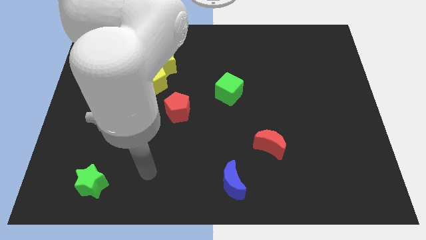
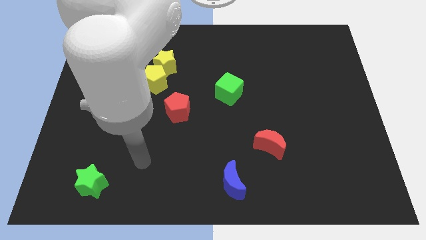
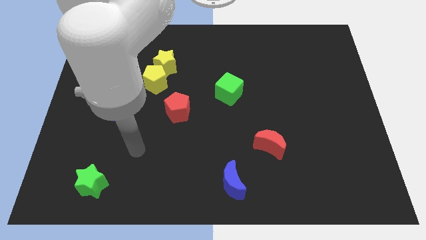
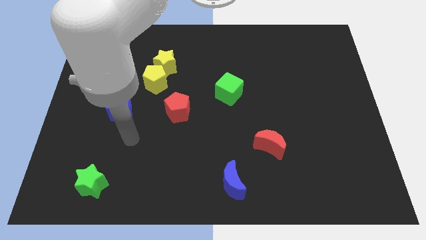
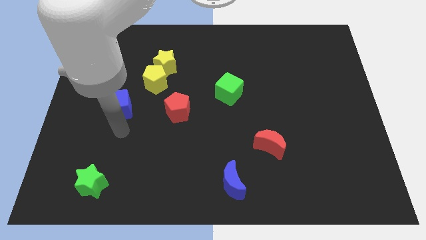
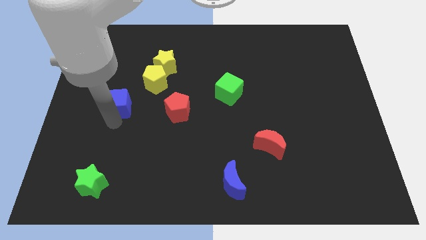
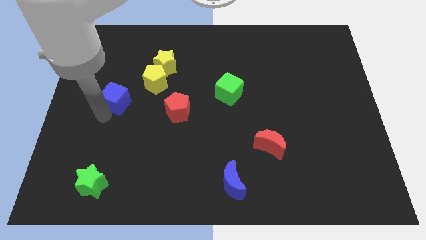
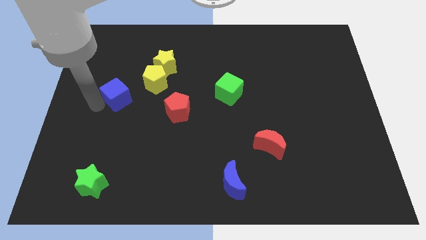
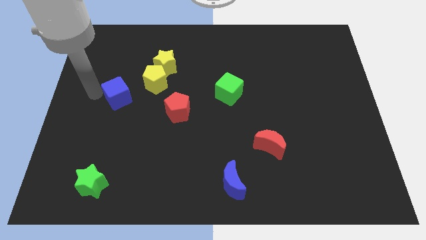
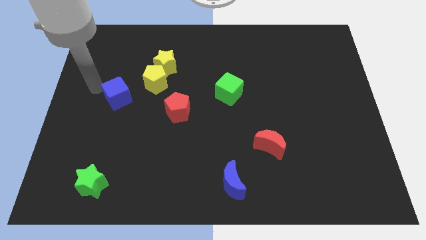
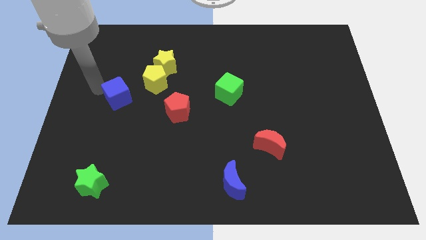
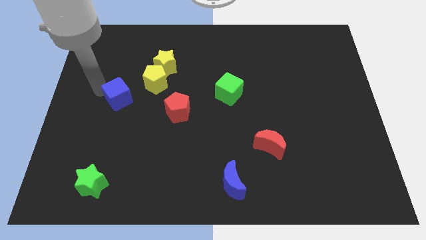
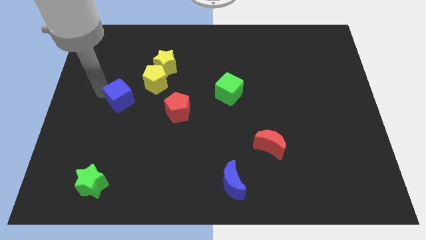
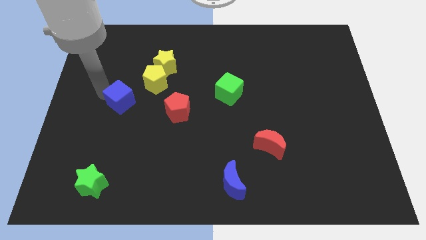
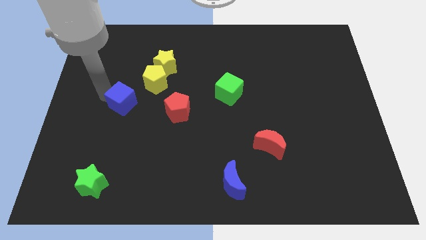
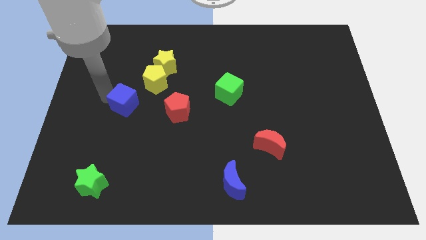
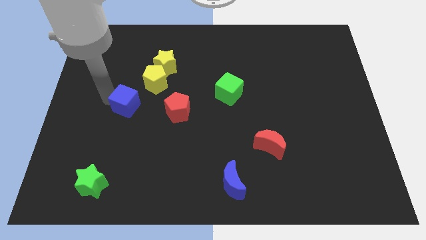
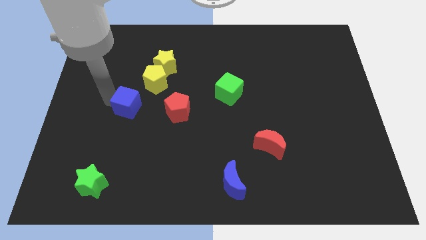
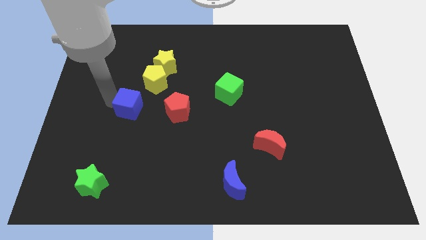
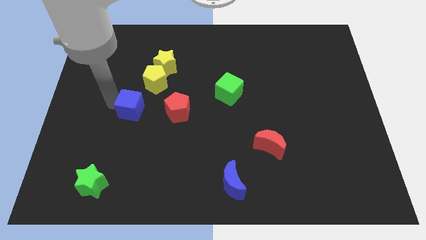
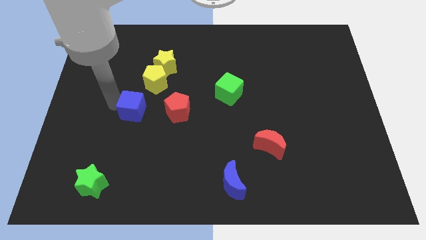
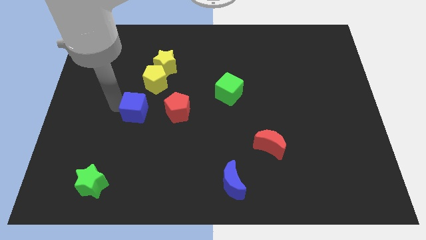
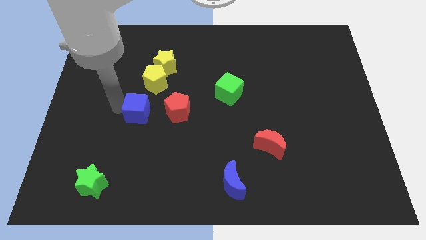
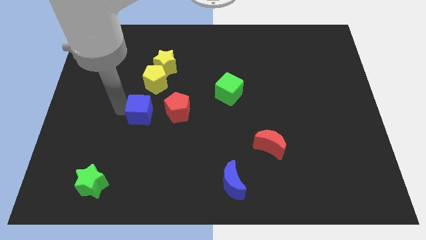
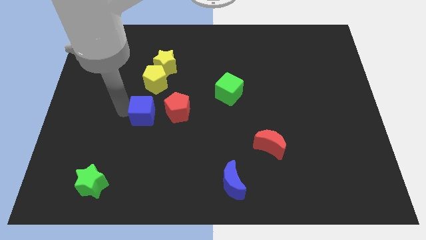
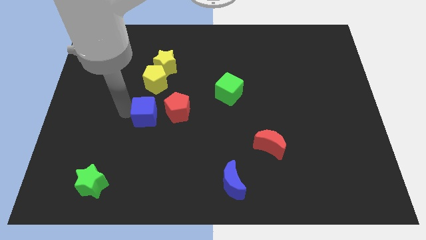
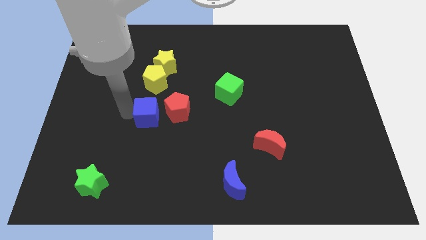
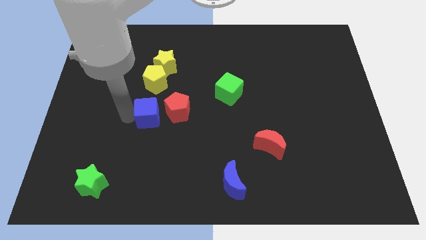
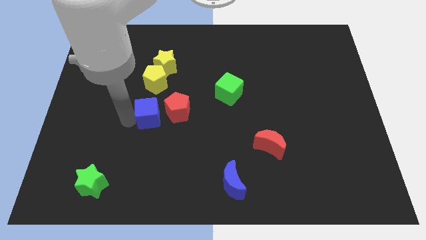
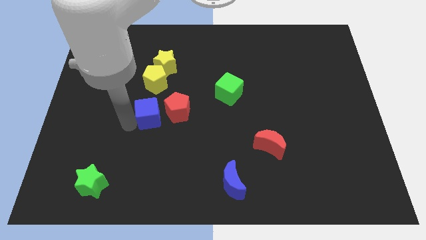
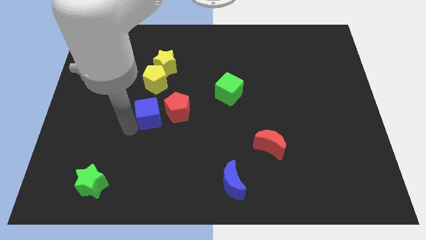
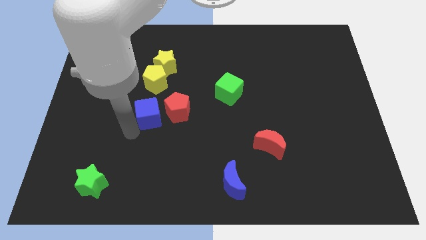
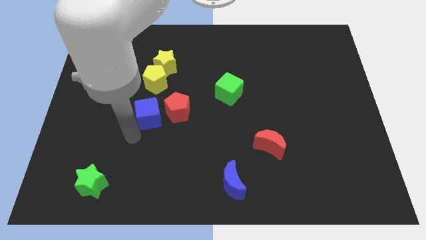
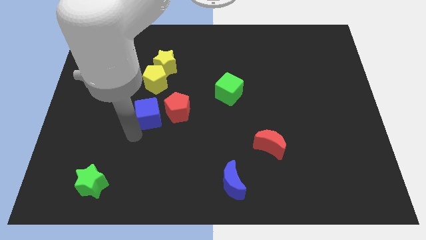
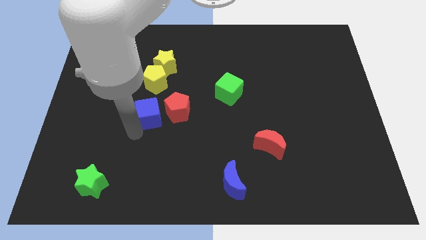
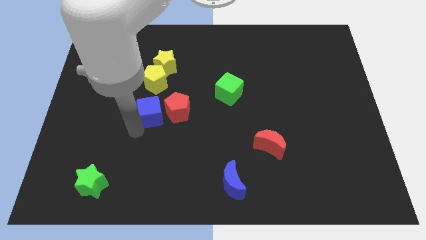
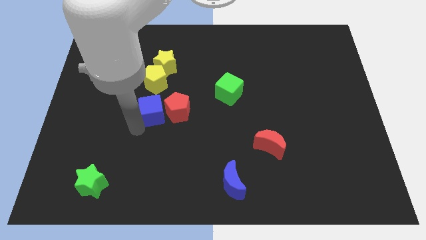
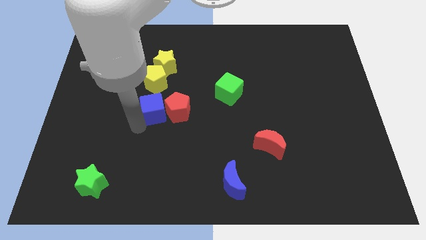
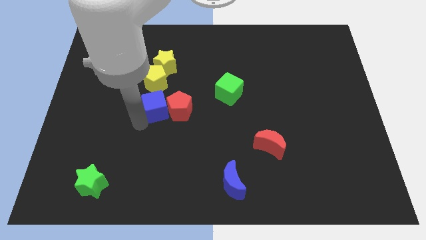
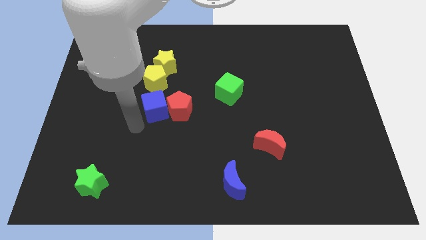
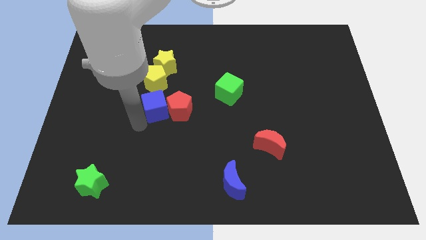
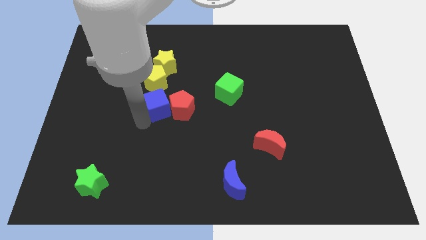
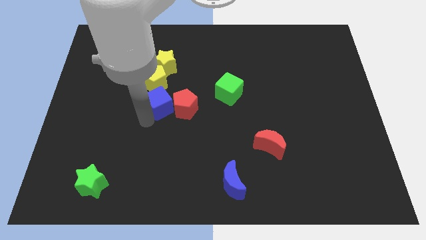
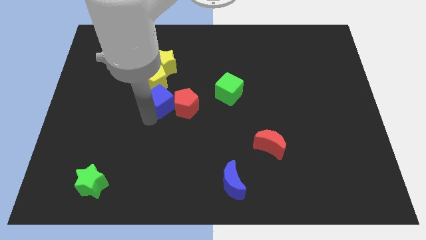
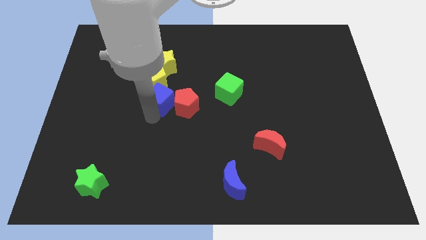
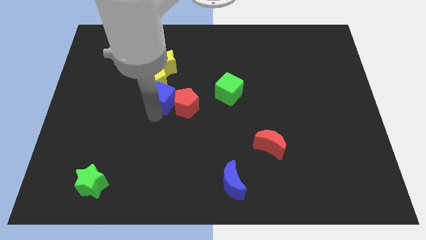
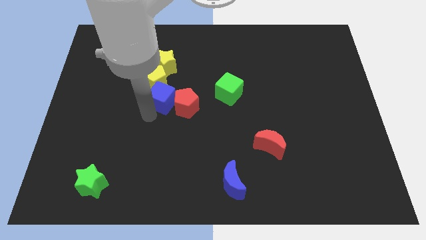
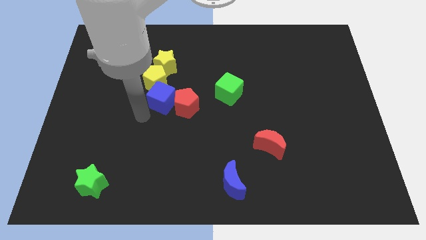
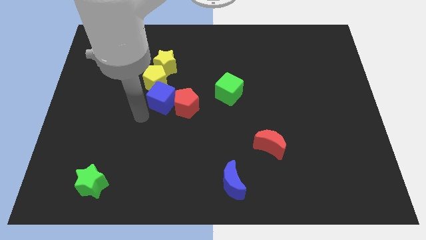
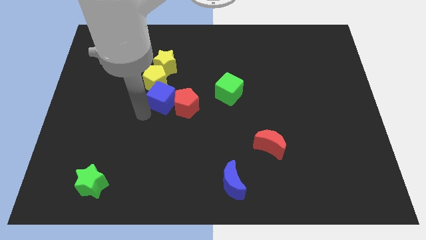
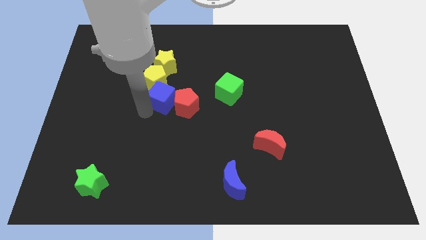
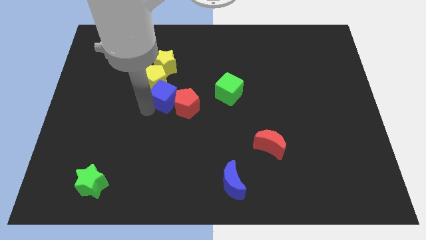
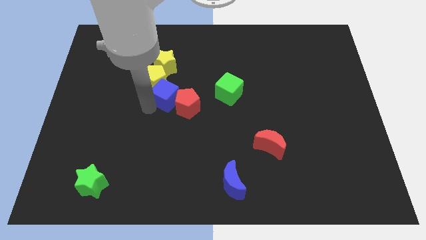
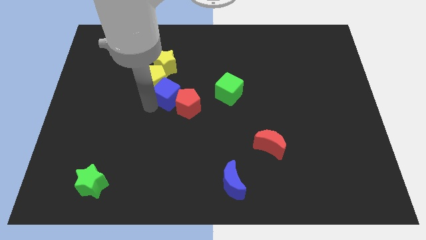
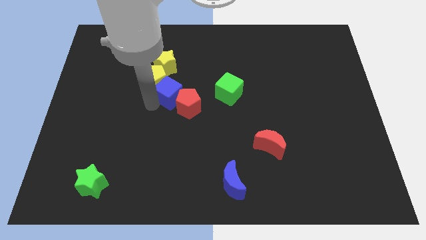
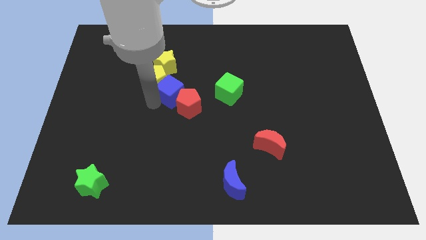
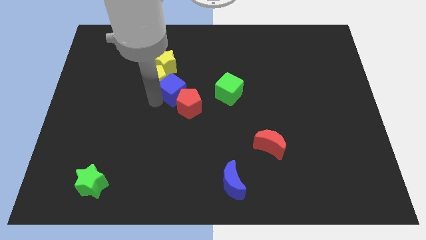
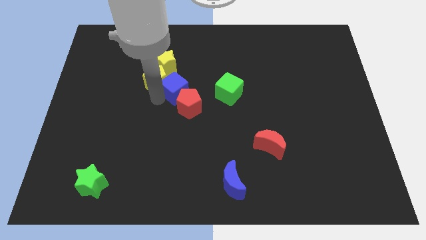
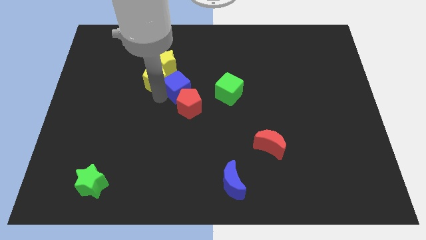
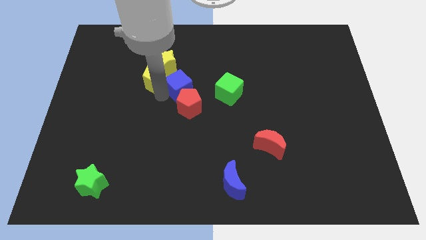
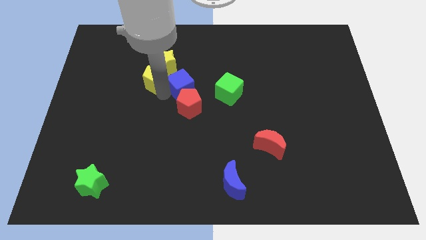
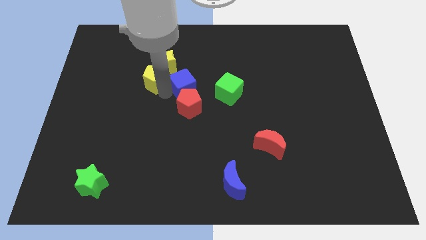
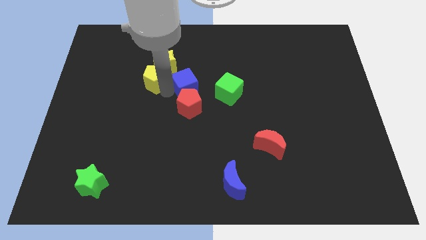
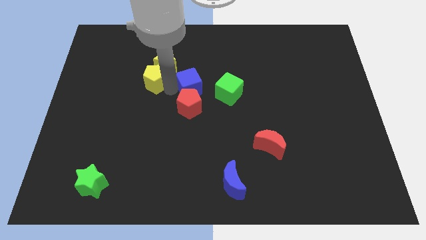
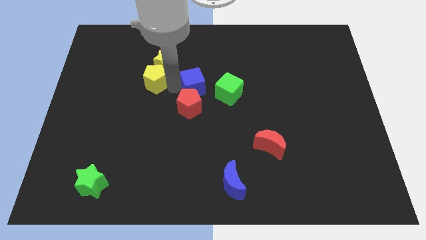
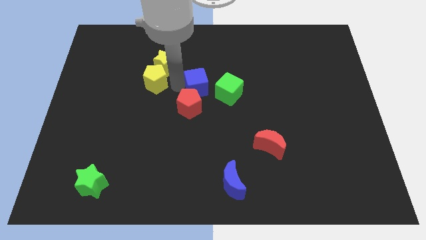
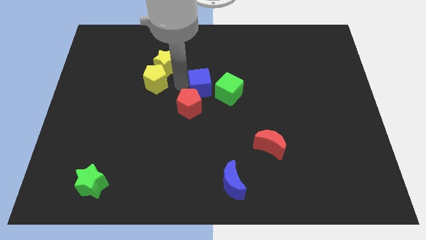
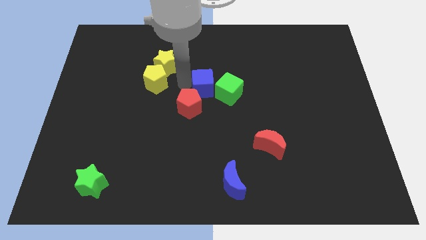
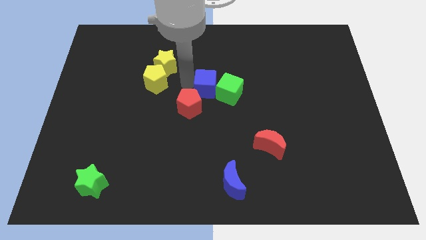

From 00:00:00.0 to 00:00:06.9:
push the blue cube close to the green cube

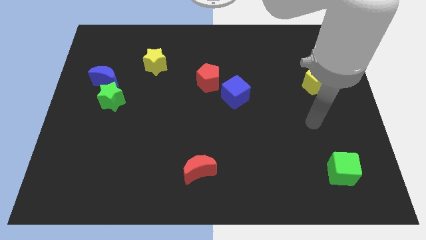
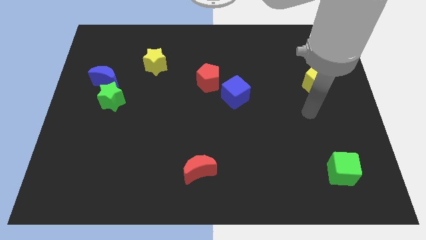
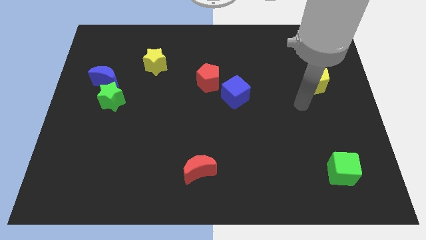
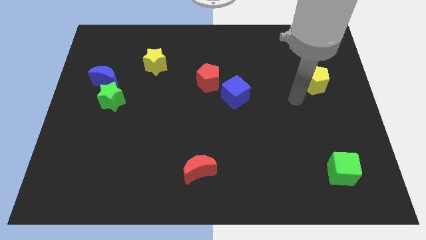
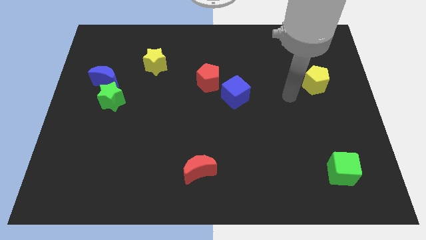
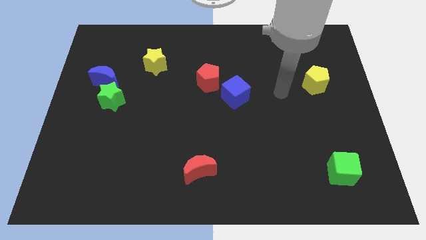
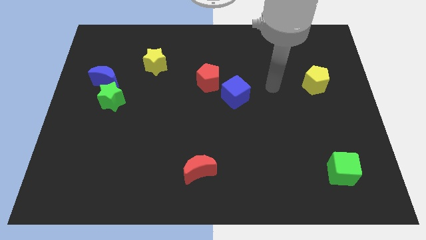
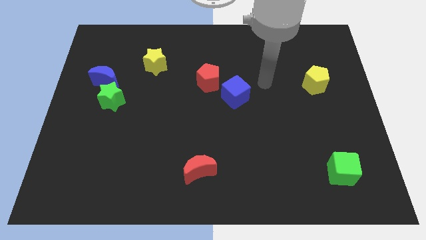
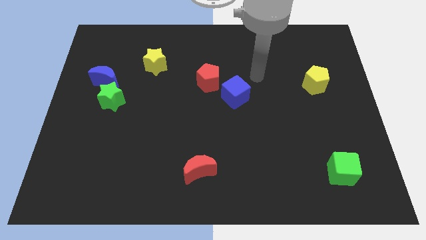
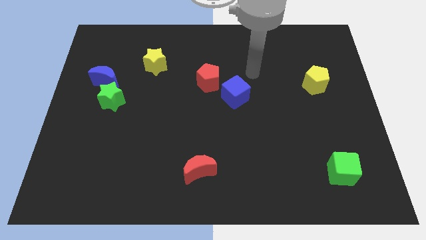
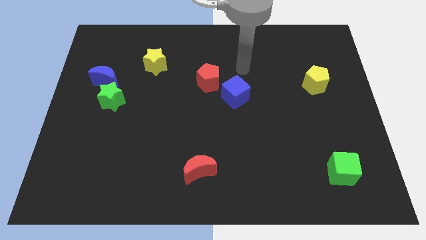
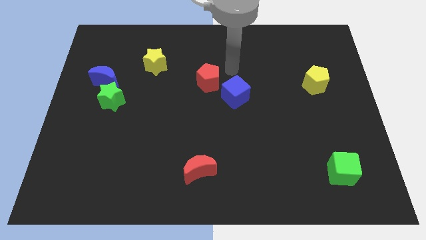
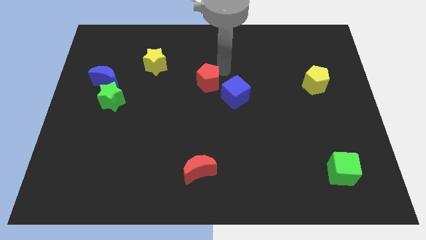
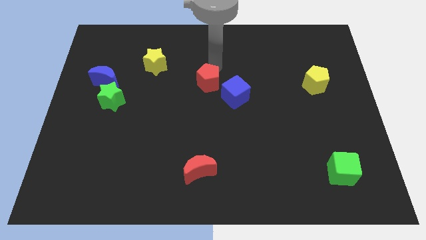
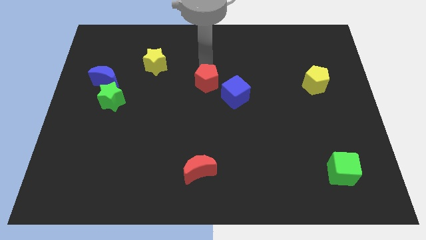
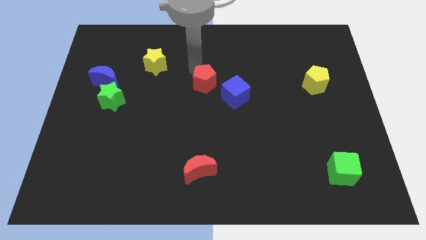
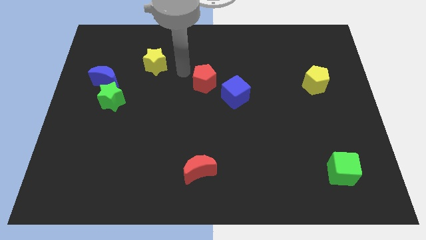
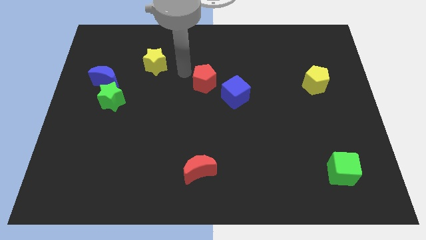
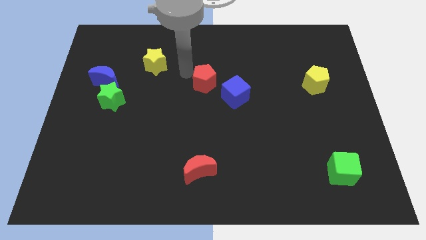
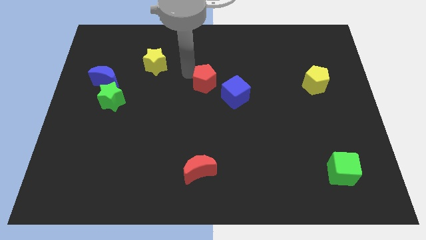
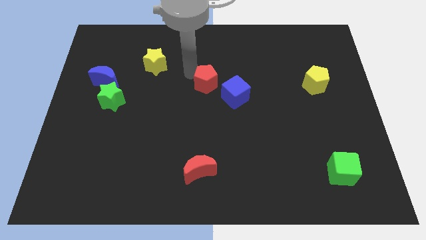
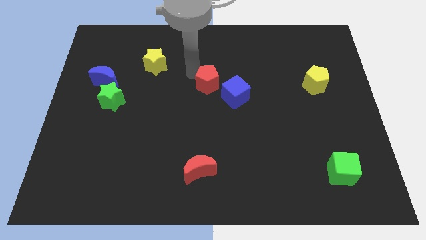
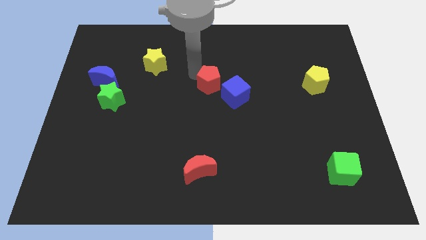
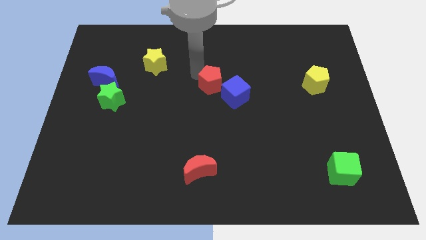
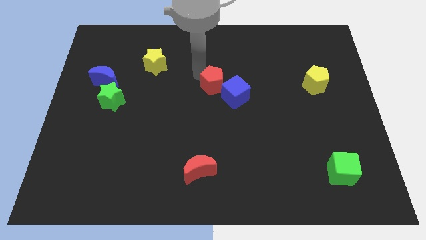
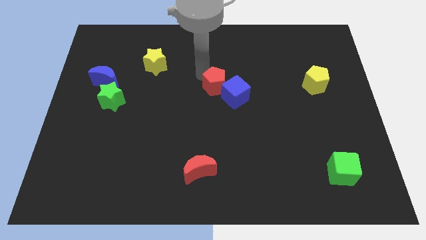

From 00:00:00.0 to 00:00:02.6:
put the red pentagon towards the blue cube
